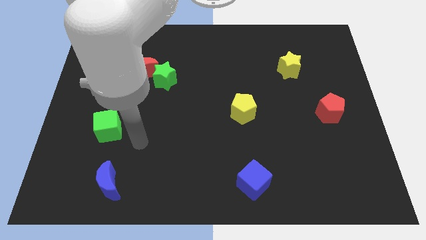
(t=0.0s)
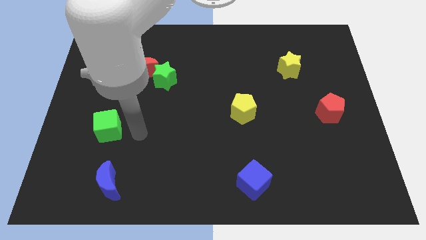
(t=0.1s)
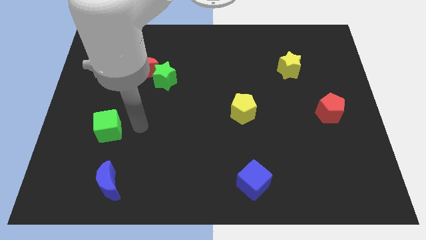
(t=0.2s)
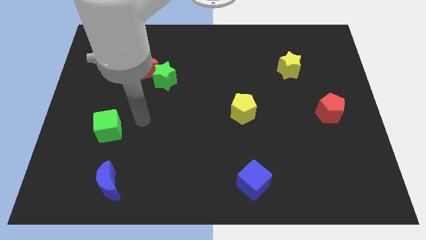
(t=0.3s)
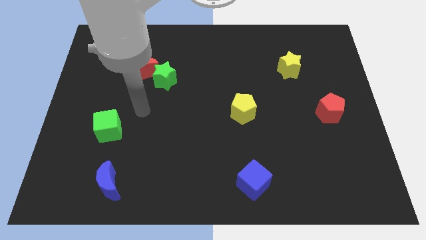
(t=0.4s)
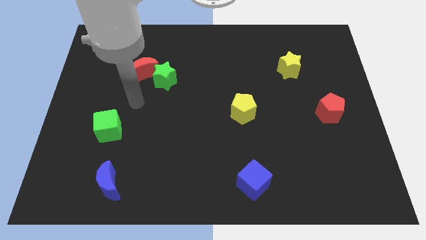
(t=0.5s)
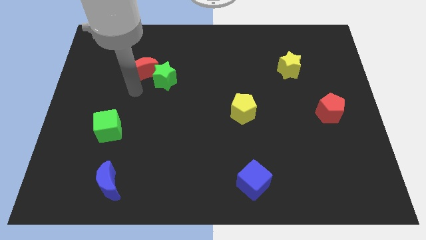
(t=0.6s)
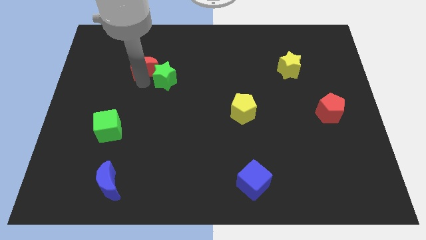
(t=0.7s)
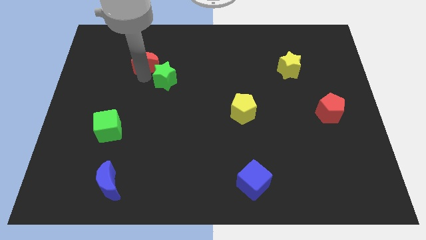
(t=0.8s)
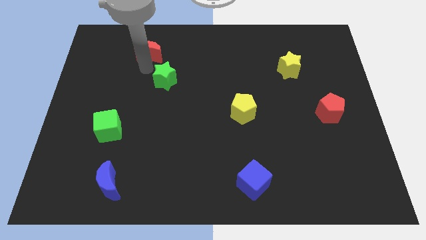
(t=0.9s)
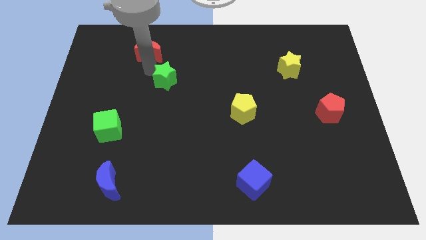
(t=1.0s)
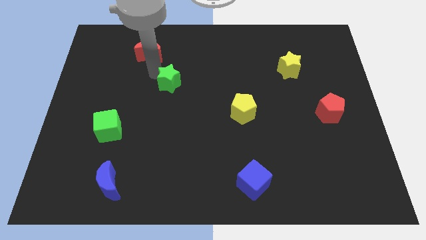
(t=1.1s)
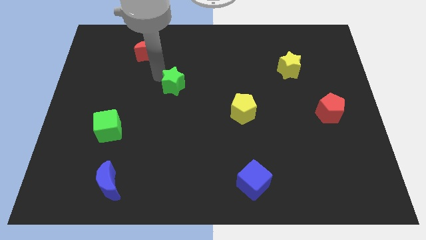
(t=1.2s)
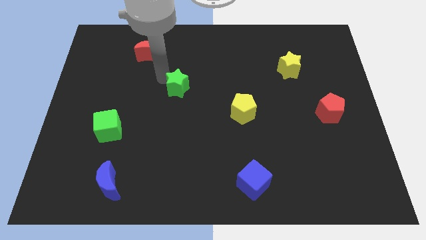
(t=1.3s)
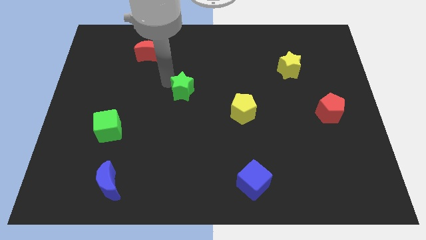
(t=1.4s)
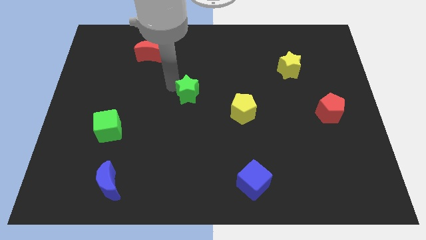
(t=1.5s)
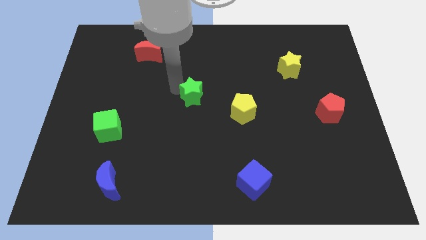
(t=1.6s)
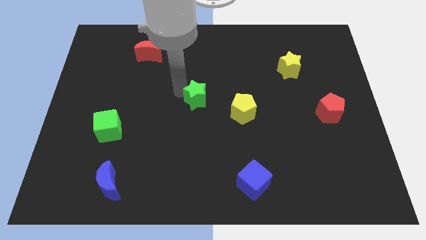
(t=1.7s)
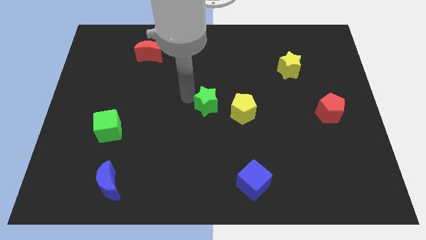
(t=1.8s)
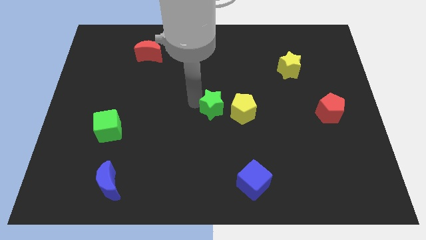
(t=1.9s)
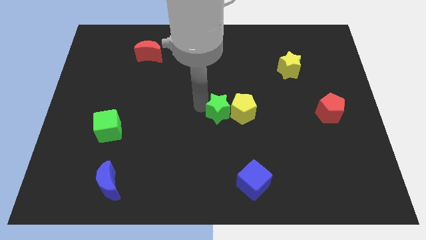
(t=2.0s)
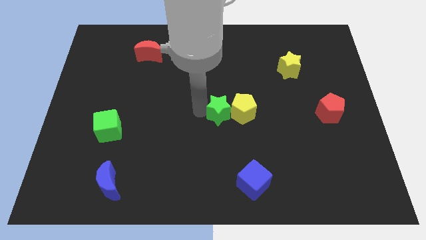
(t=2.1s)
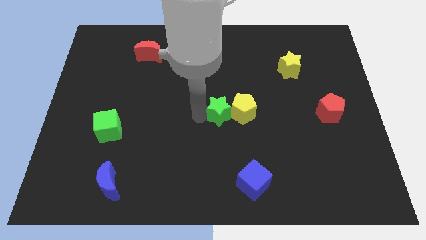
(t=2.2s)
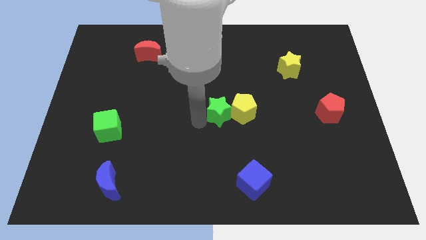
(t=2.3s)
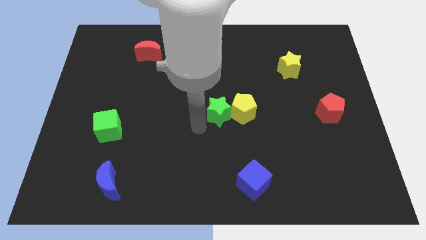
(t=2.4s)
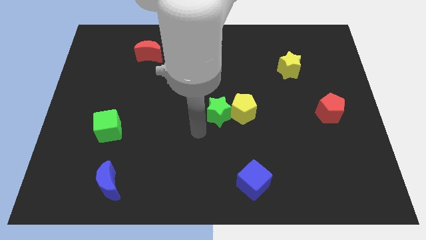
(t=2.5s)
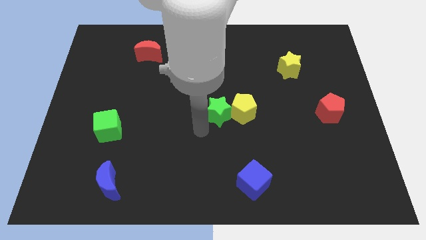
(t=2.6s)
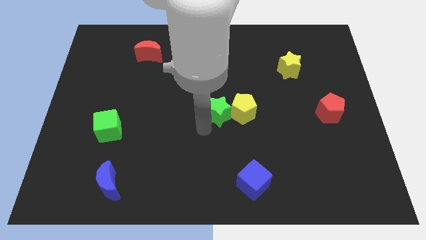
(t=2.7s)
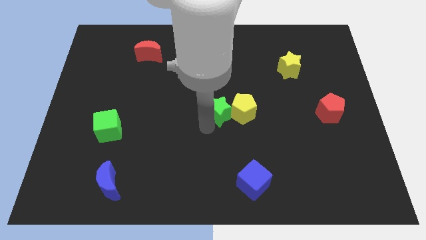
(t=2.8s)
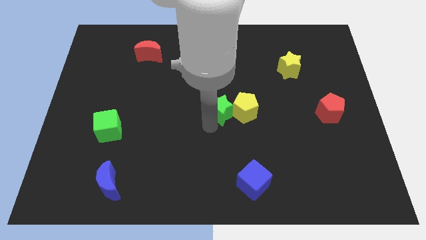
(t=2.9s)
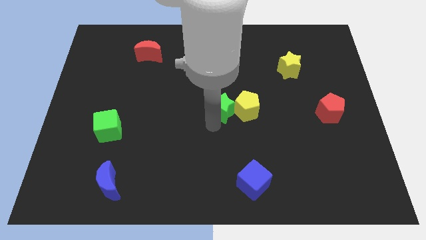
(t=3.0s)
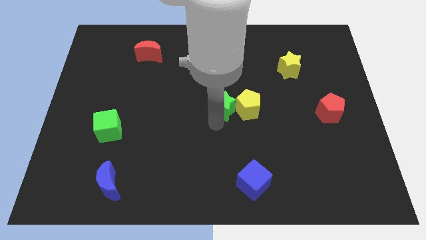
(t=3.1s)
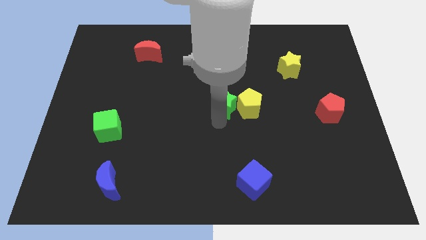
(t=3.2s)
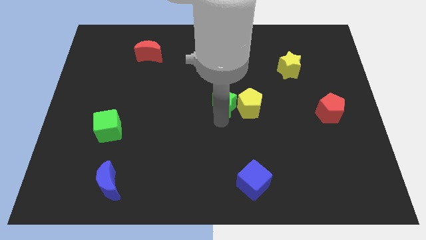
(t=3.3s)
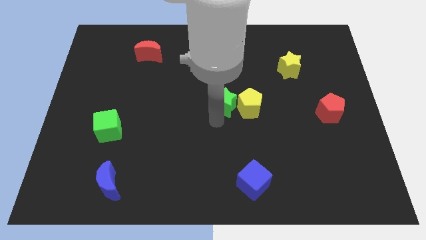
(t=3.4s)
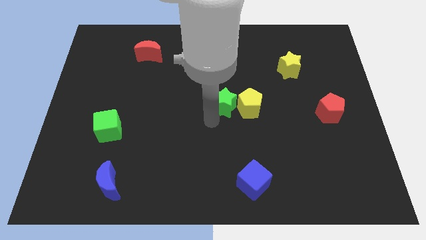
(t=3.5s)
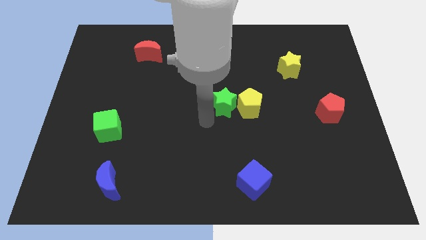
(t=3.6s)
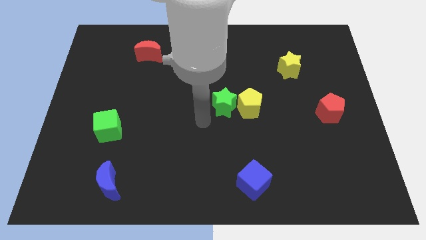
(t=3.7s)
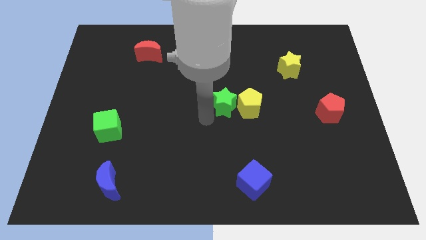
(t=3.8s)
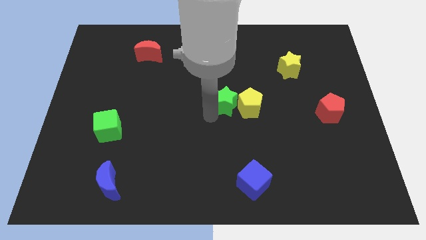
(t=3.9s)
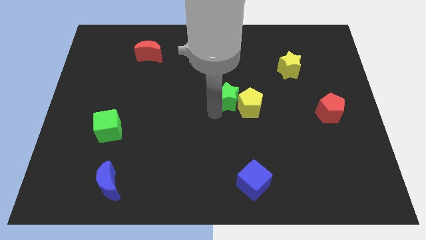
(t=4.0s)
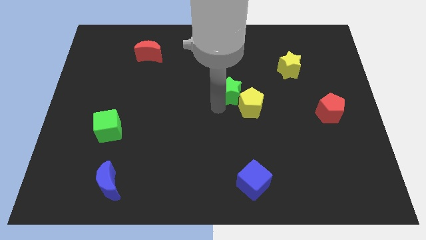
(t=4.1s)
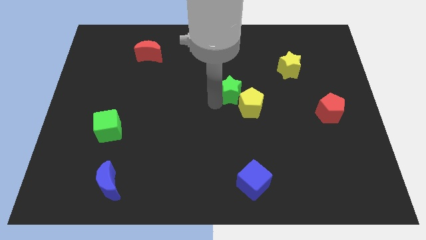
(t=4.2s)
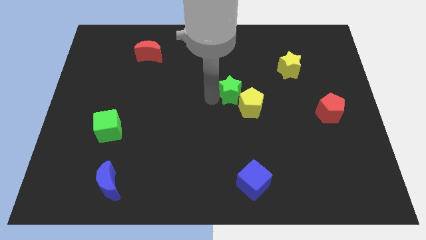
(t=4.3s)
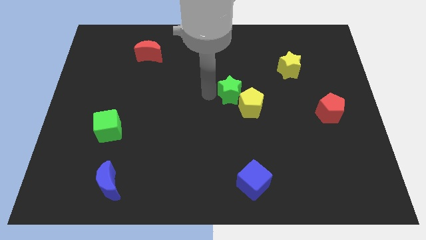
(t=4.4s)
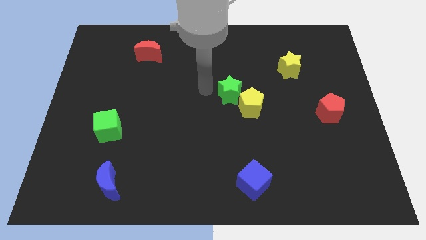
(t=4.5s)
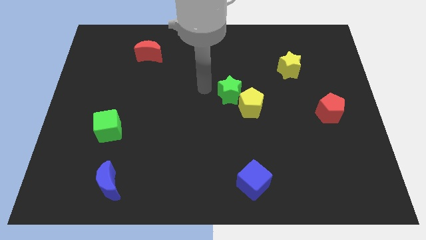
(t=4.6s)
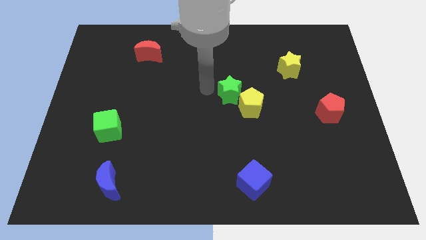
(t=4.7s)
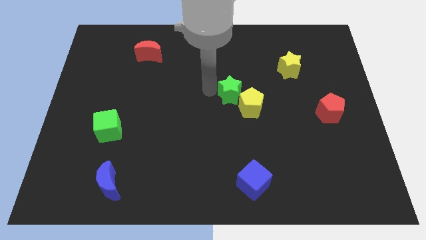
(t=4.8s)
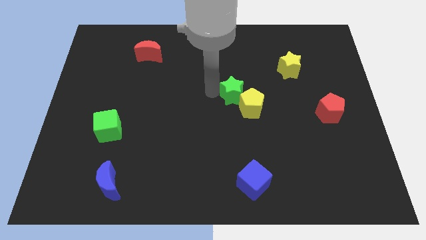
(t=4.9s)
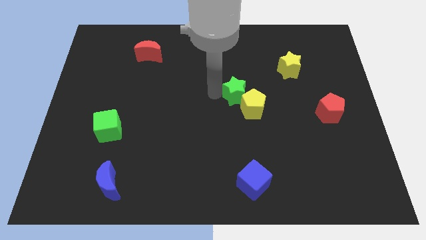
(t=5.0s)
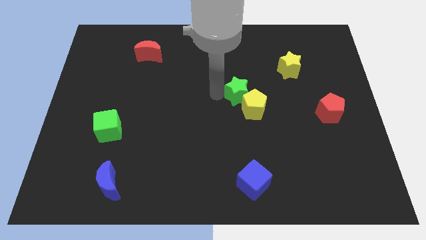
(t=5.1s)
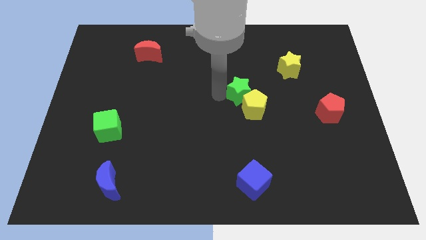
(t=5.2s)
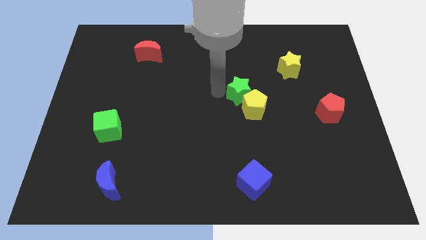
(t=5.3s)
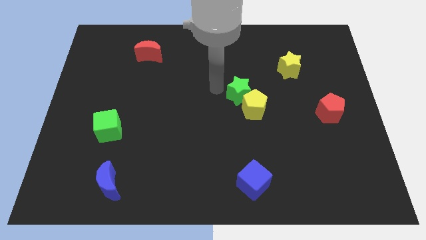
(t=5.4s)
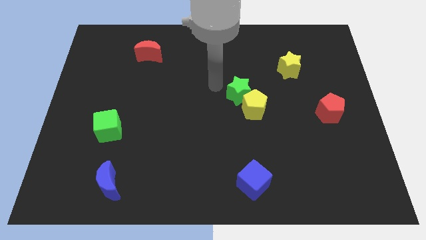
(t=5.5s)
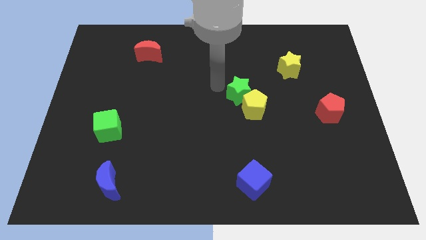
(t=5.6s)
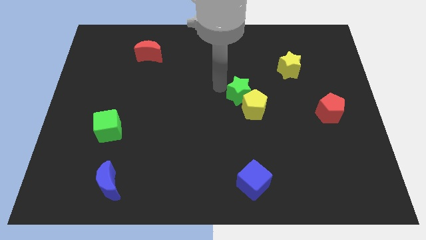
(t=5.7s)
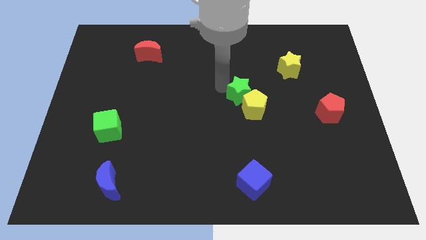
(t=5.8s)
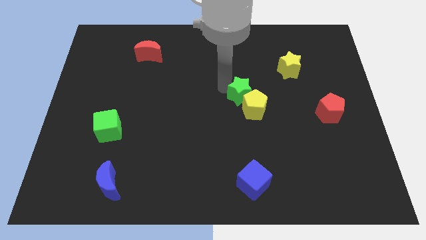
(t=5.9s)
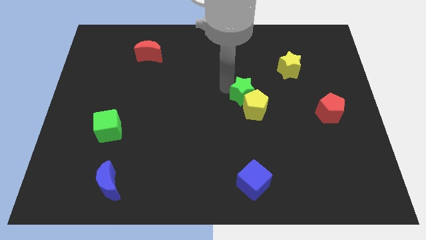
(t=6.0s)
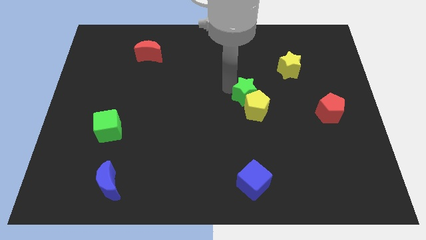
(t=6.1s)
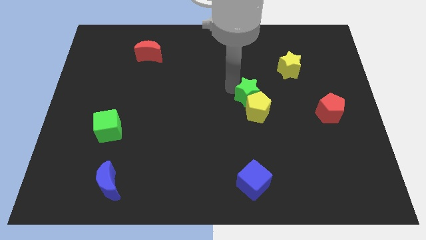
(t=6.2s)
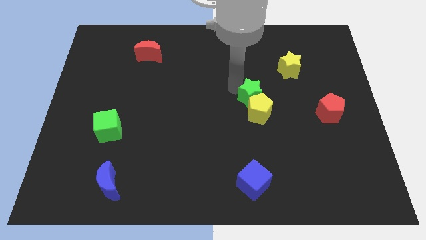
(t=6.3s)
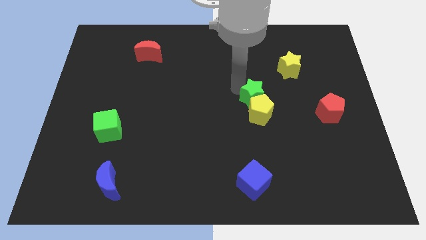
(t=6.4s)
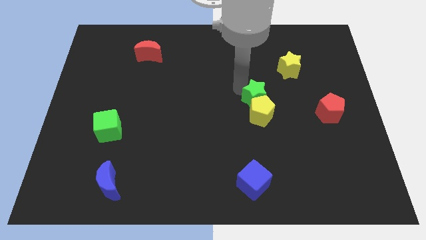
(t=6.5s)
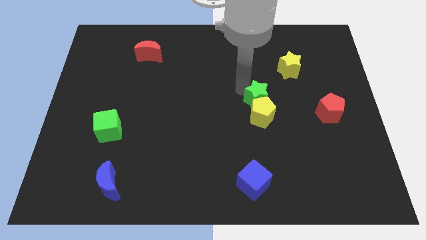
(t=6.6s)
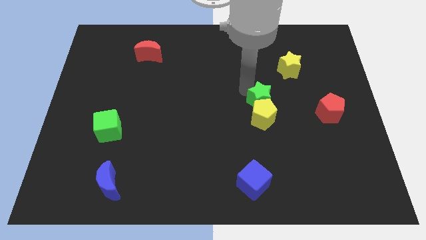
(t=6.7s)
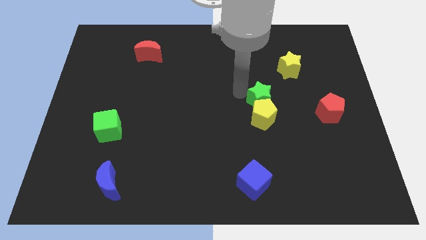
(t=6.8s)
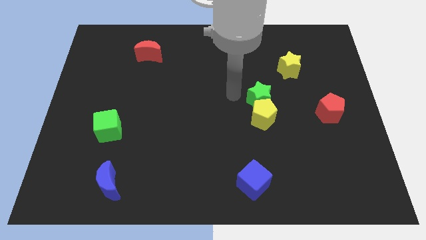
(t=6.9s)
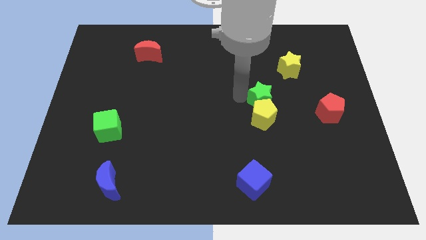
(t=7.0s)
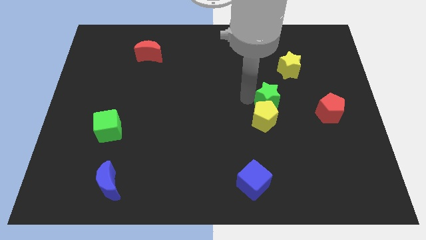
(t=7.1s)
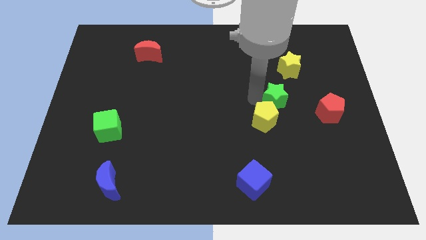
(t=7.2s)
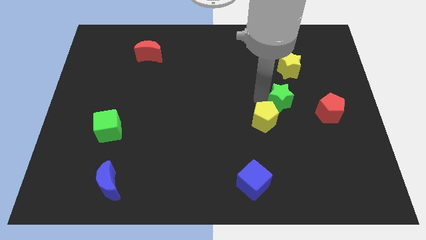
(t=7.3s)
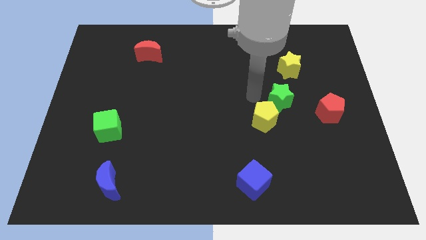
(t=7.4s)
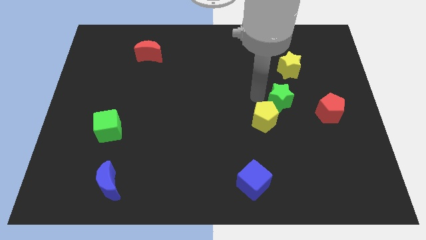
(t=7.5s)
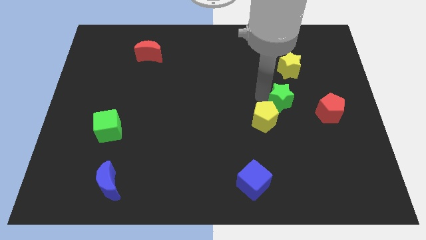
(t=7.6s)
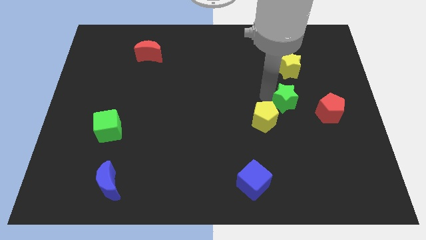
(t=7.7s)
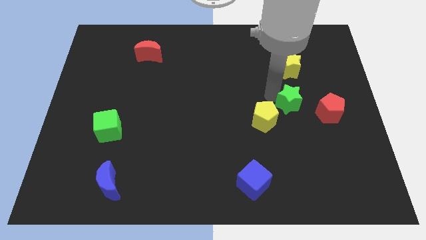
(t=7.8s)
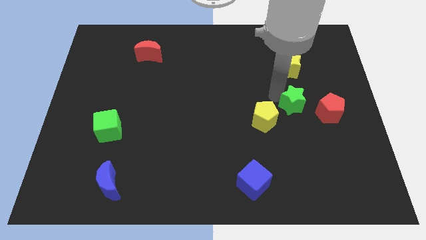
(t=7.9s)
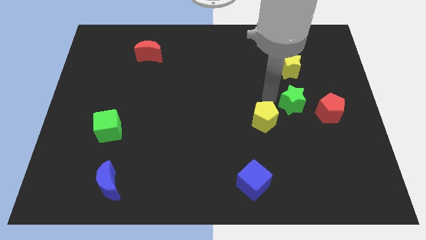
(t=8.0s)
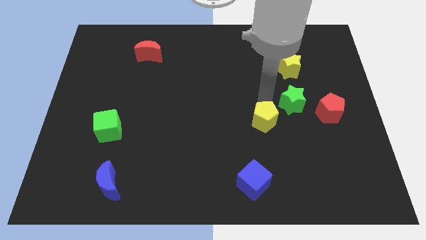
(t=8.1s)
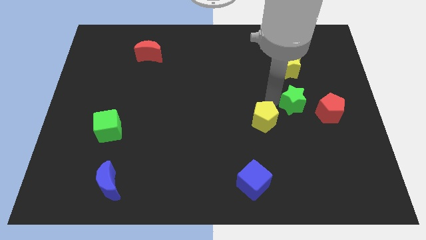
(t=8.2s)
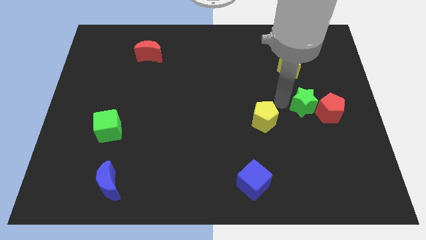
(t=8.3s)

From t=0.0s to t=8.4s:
put the green star close to the red pentagon
